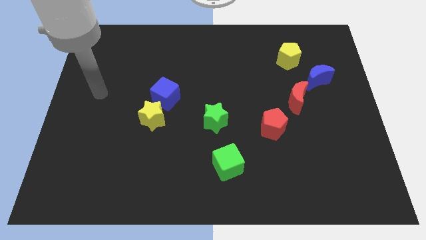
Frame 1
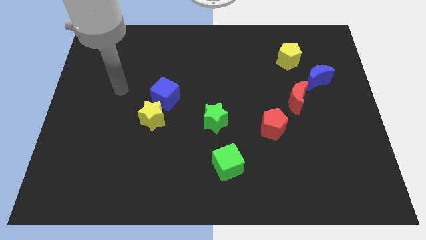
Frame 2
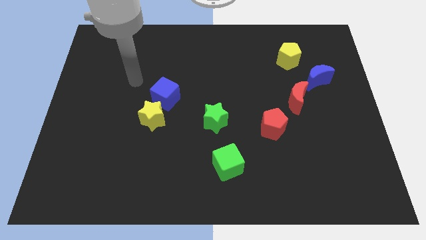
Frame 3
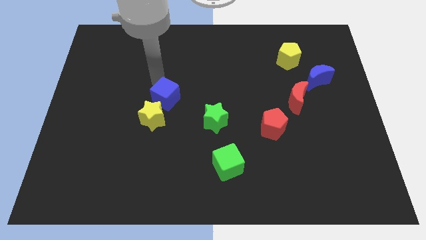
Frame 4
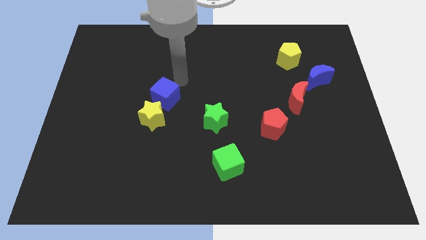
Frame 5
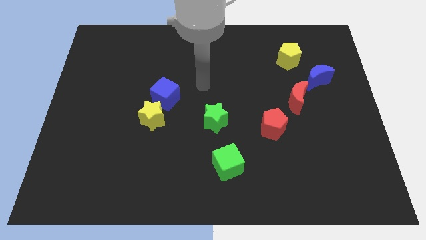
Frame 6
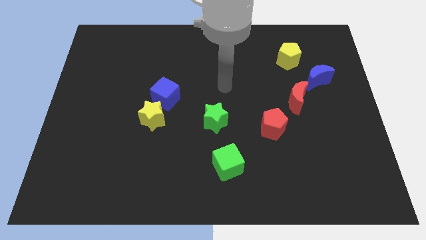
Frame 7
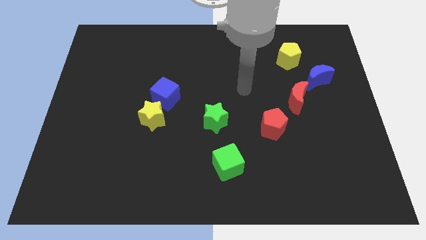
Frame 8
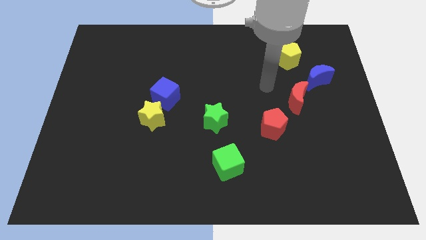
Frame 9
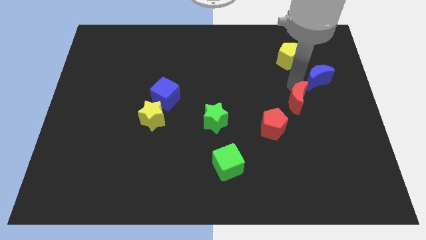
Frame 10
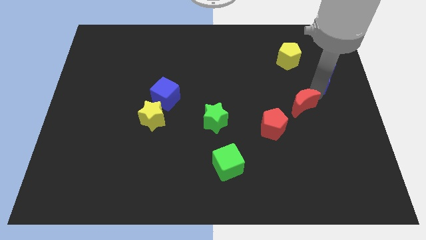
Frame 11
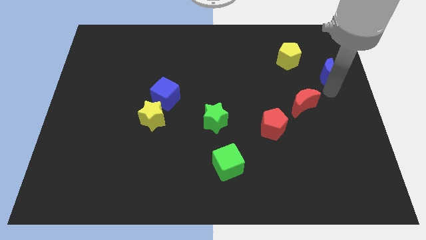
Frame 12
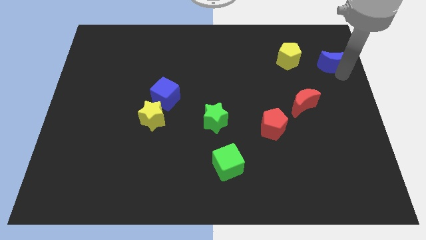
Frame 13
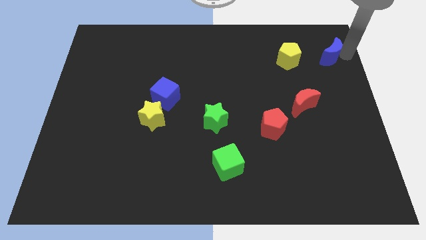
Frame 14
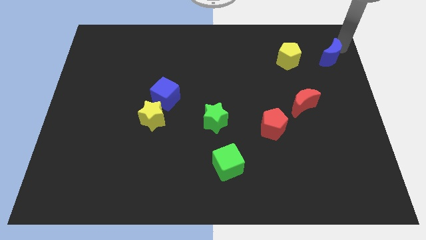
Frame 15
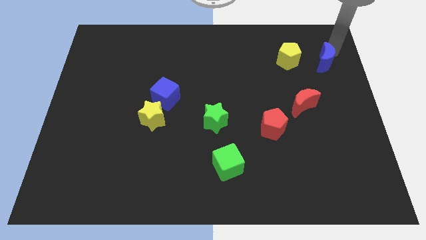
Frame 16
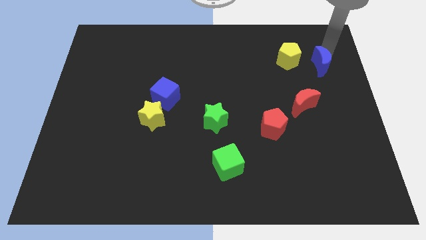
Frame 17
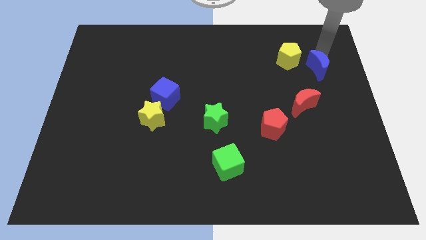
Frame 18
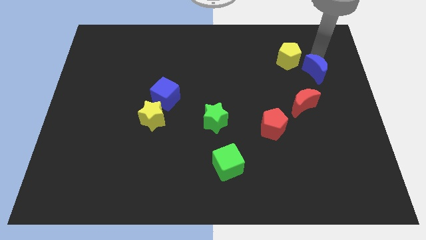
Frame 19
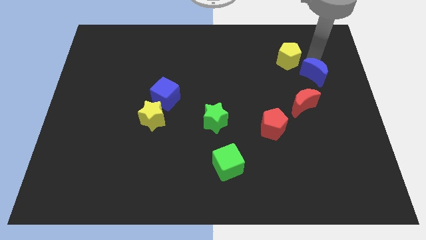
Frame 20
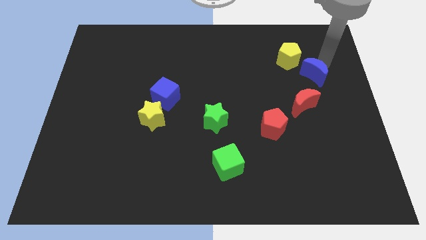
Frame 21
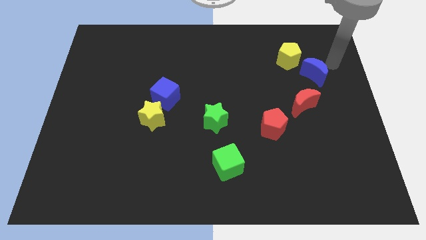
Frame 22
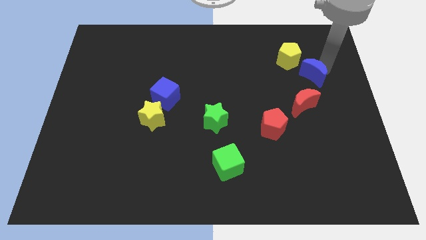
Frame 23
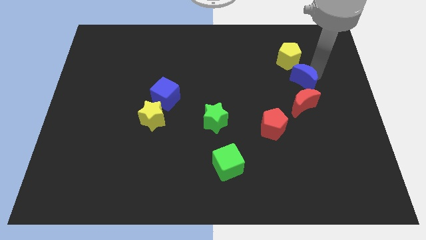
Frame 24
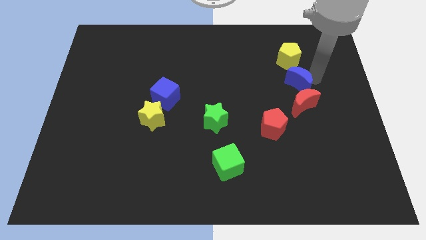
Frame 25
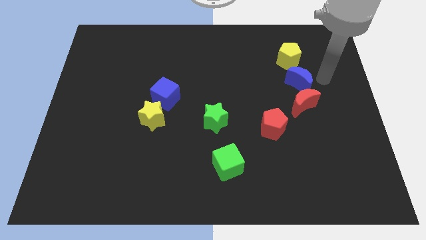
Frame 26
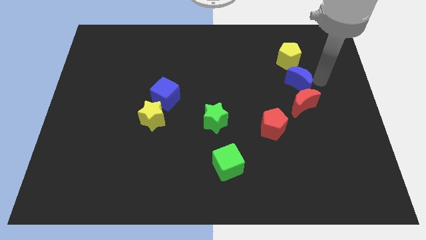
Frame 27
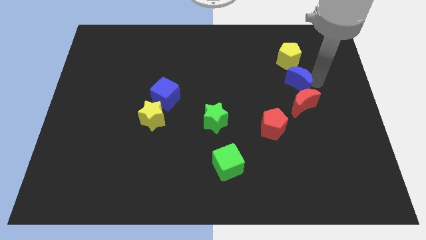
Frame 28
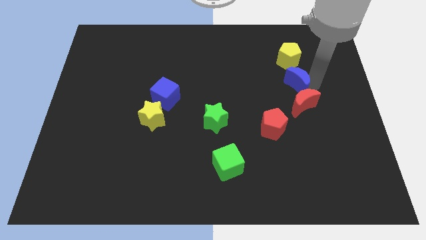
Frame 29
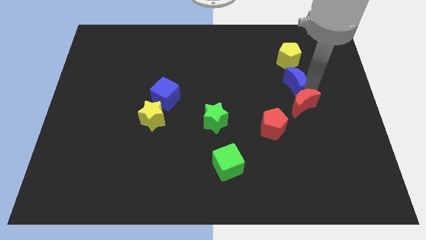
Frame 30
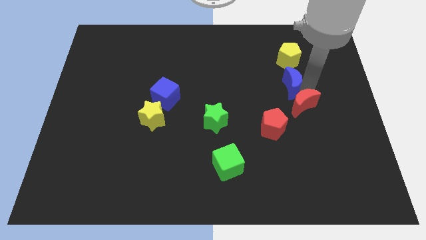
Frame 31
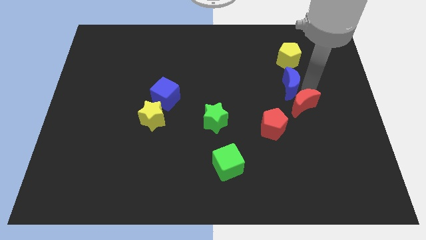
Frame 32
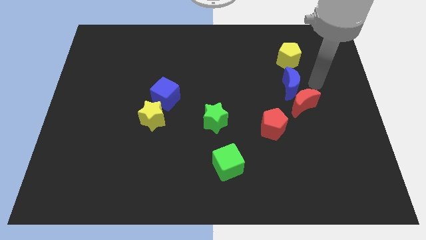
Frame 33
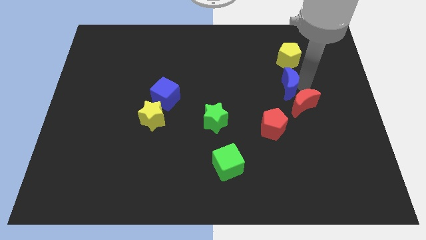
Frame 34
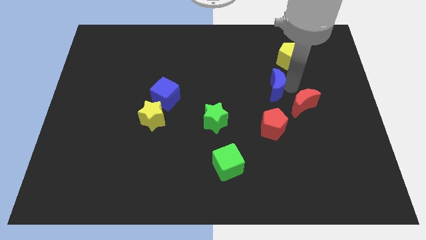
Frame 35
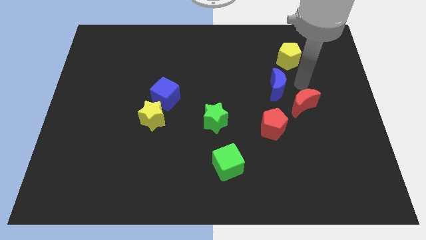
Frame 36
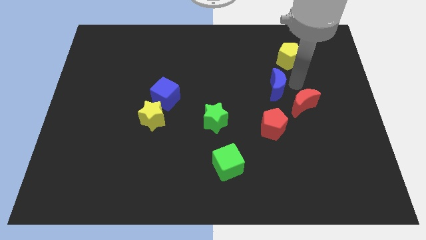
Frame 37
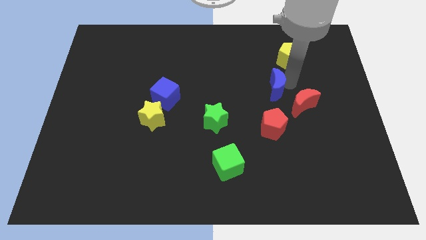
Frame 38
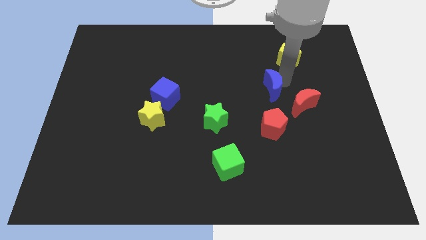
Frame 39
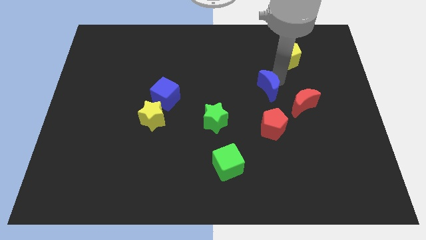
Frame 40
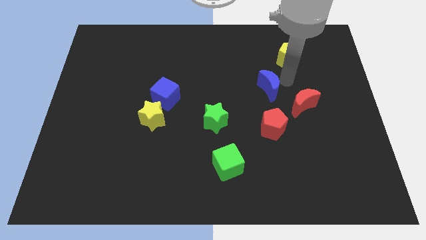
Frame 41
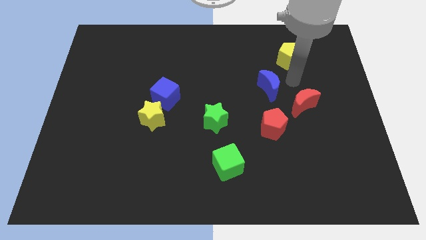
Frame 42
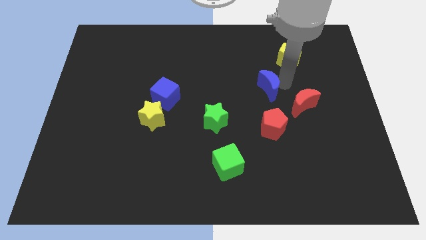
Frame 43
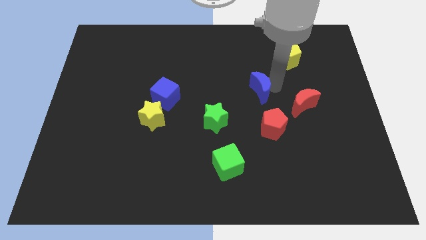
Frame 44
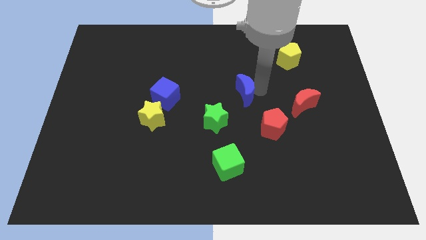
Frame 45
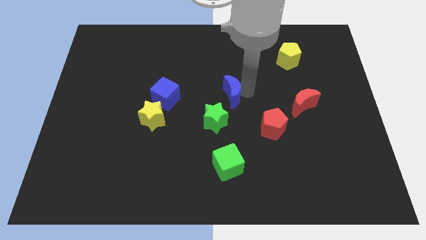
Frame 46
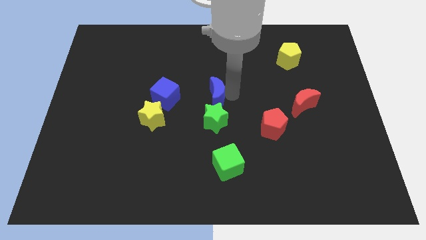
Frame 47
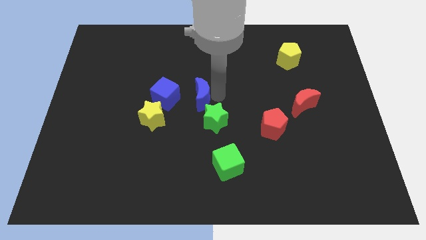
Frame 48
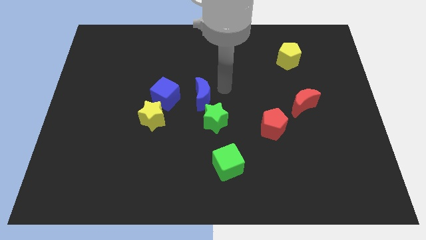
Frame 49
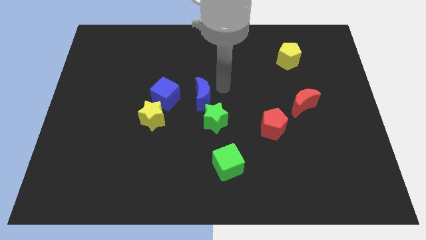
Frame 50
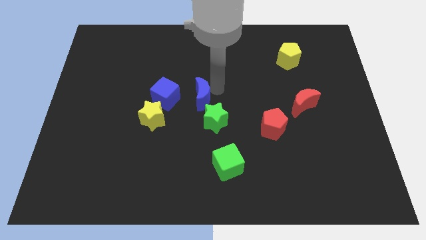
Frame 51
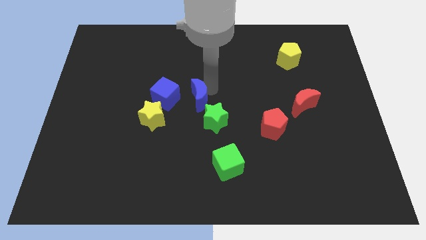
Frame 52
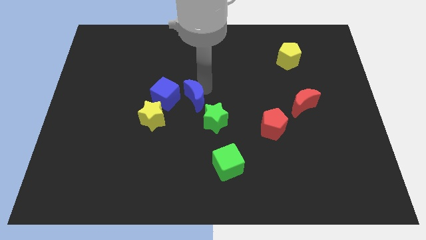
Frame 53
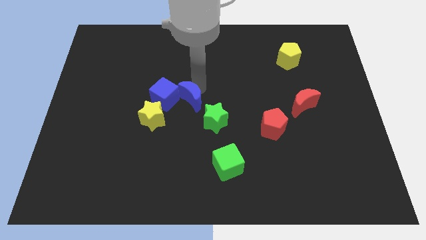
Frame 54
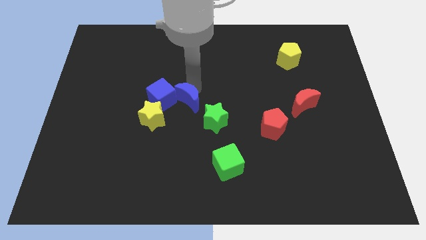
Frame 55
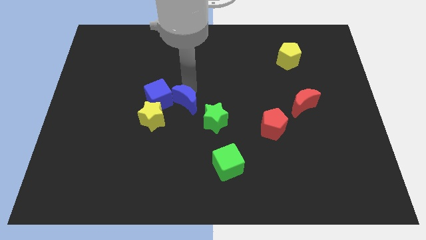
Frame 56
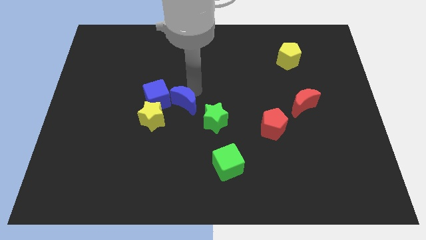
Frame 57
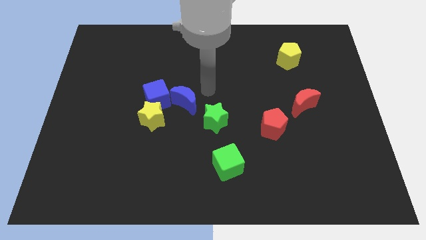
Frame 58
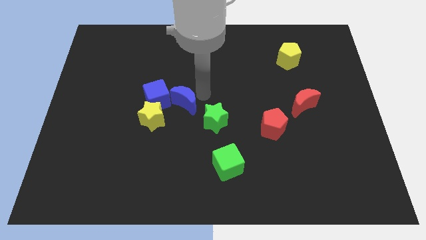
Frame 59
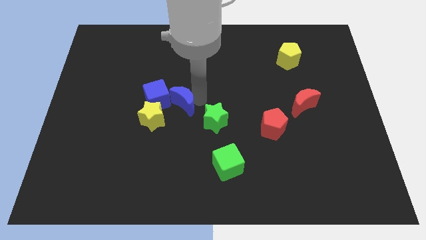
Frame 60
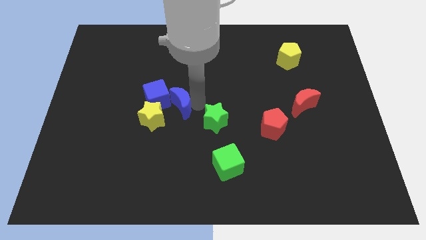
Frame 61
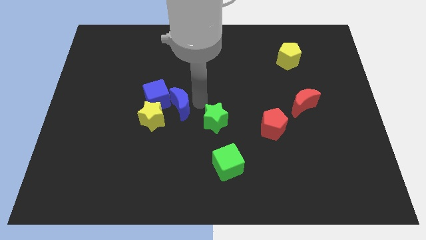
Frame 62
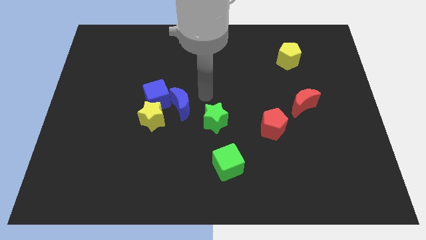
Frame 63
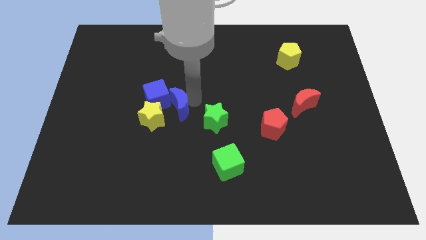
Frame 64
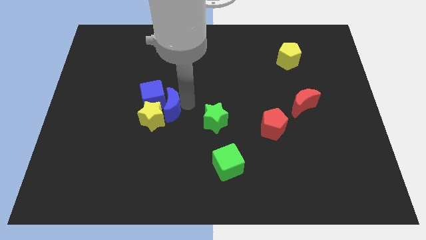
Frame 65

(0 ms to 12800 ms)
move the blue moon towards the yellow star

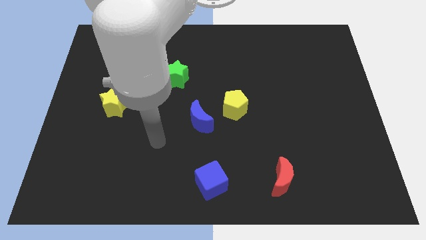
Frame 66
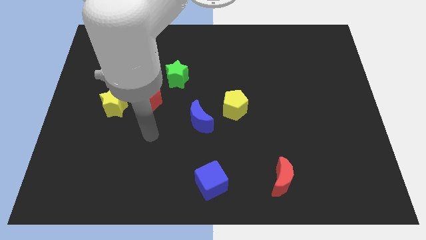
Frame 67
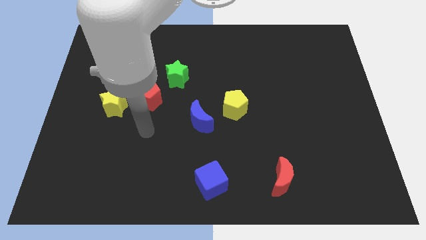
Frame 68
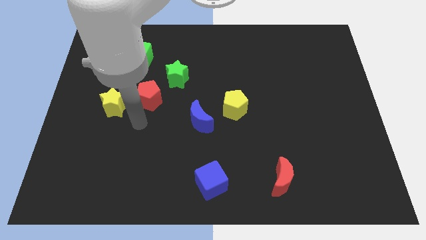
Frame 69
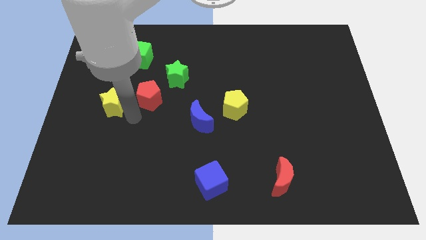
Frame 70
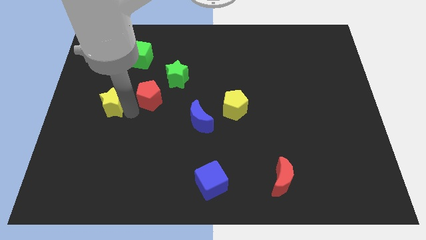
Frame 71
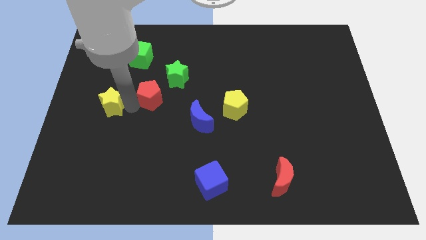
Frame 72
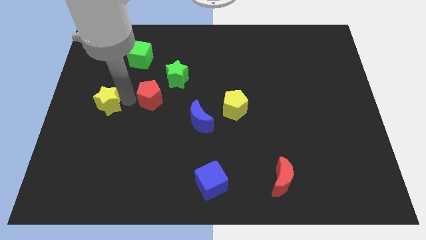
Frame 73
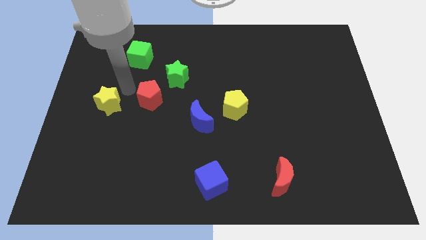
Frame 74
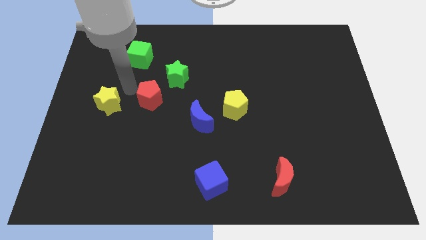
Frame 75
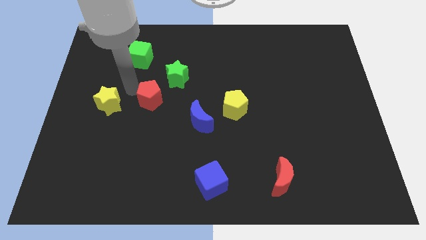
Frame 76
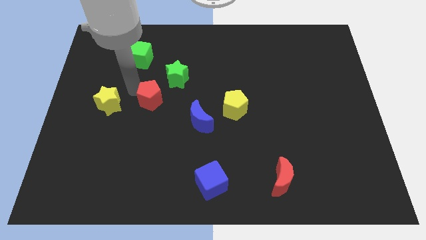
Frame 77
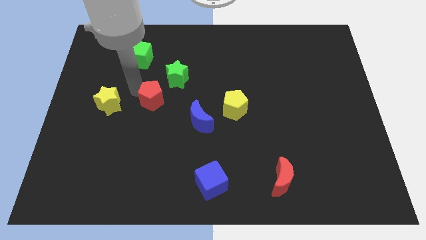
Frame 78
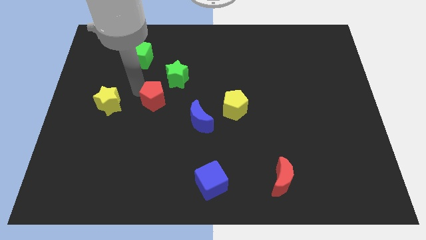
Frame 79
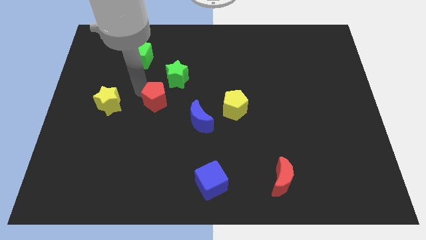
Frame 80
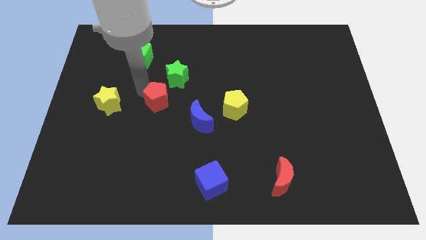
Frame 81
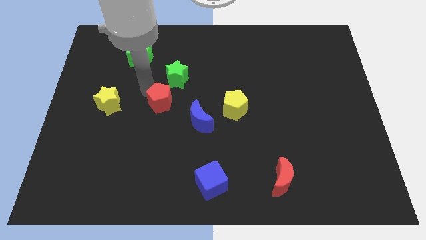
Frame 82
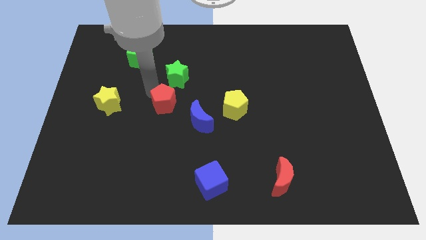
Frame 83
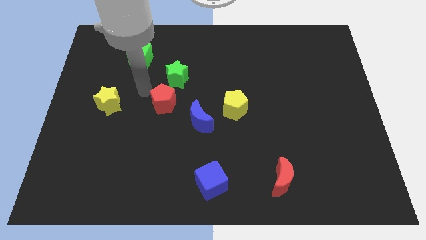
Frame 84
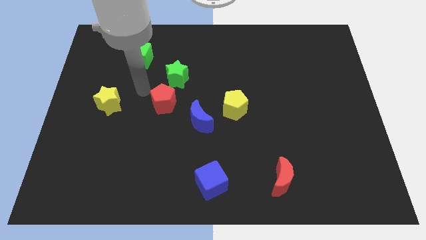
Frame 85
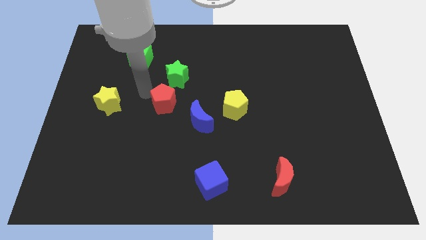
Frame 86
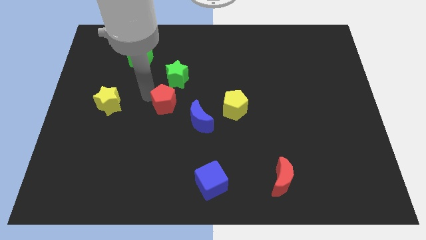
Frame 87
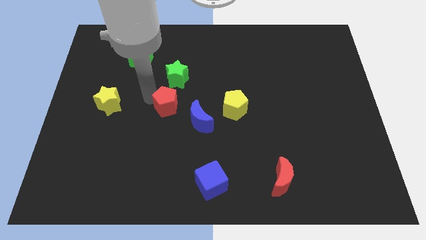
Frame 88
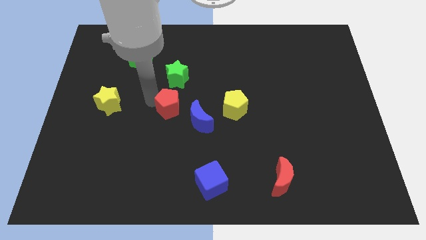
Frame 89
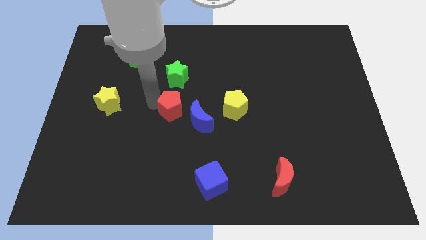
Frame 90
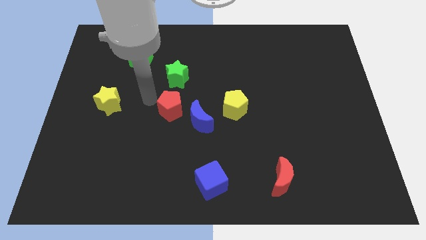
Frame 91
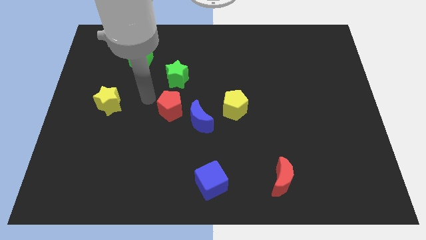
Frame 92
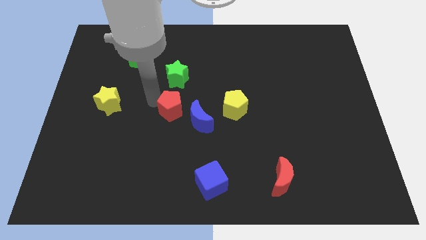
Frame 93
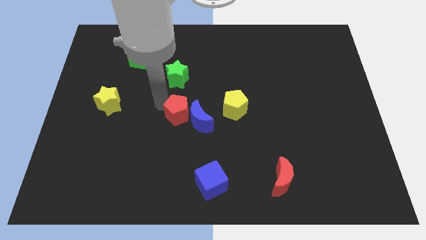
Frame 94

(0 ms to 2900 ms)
move the red pentagon close to the blue moon
